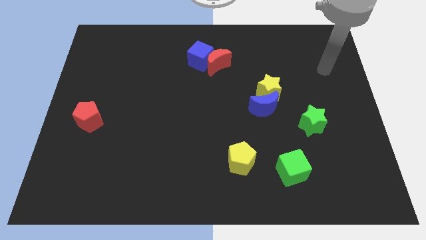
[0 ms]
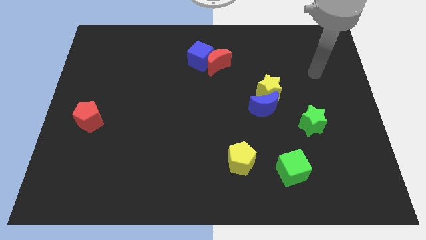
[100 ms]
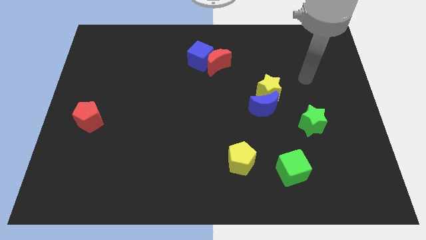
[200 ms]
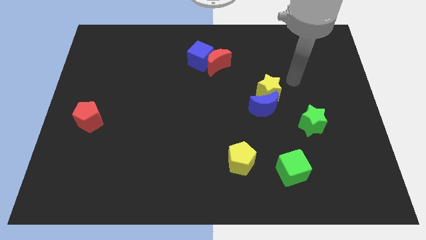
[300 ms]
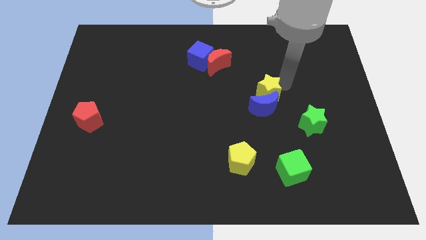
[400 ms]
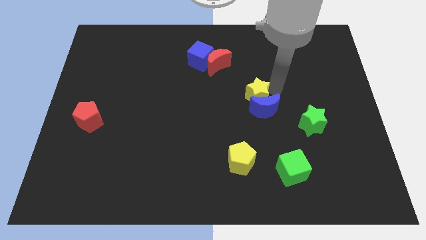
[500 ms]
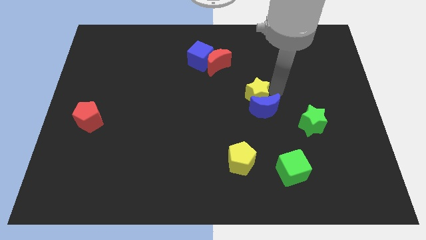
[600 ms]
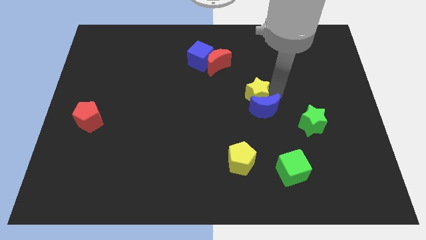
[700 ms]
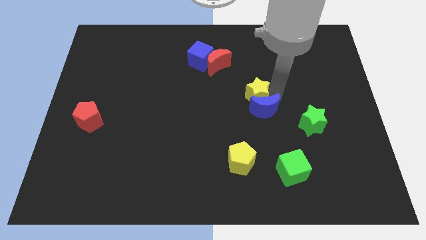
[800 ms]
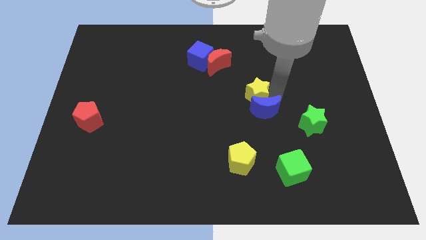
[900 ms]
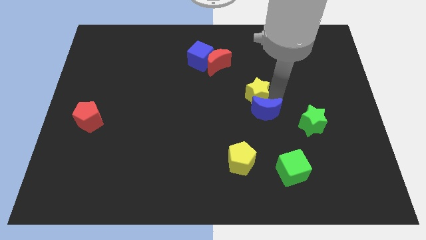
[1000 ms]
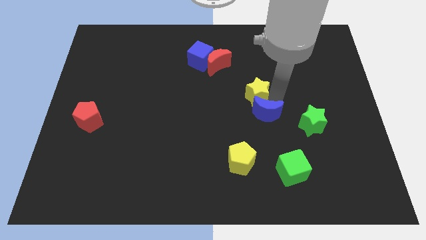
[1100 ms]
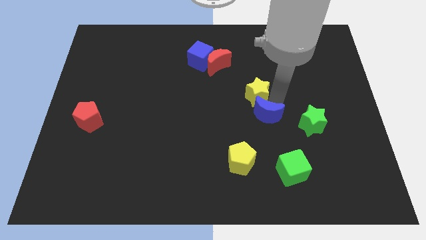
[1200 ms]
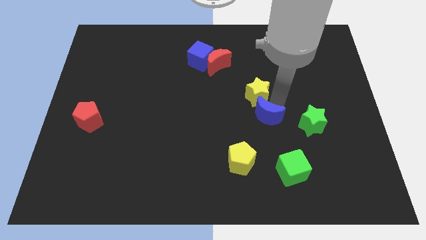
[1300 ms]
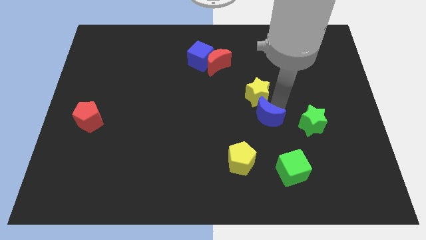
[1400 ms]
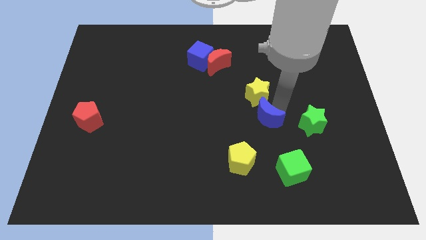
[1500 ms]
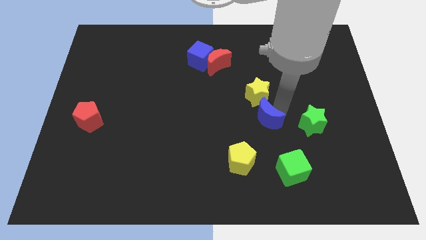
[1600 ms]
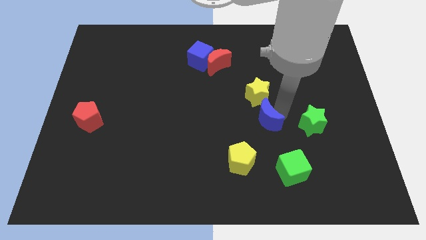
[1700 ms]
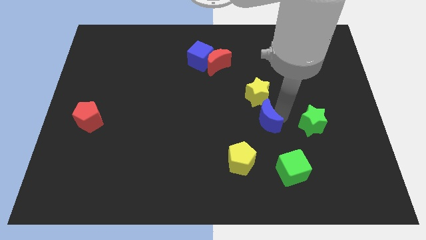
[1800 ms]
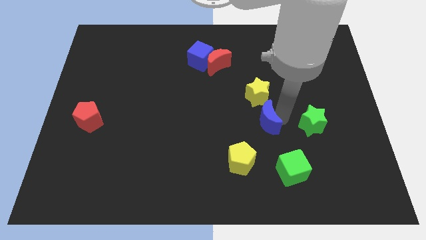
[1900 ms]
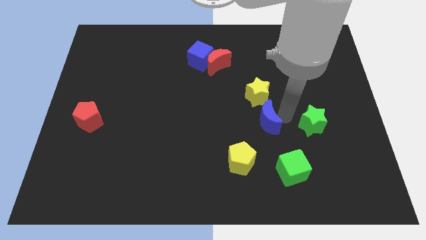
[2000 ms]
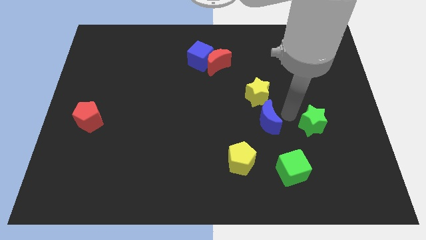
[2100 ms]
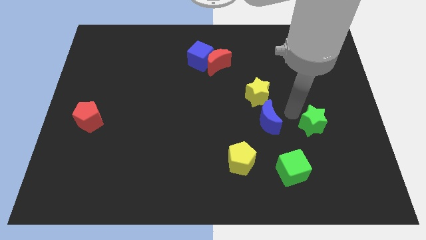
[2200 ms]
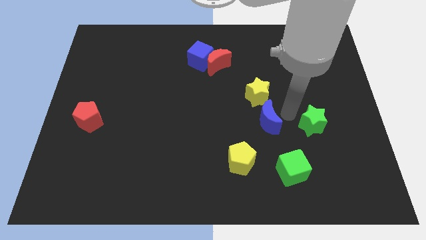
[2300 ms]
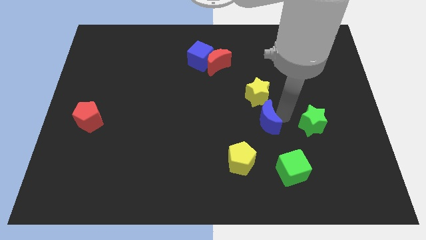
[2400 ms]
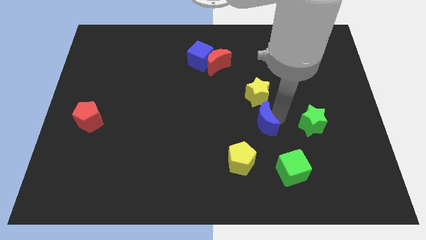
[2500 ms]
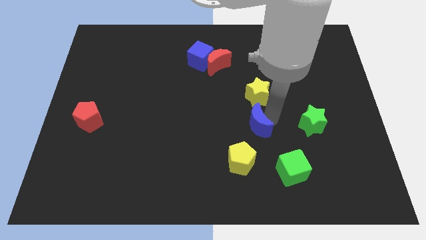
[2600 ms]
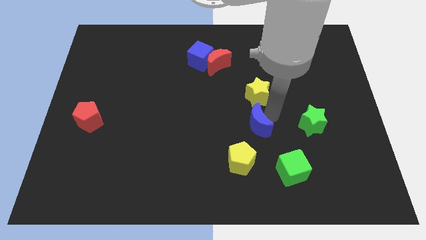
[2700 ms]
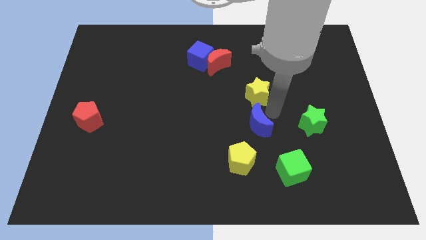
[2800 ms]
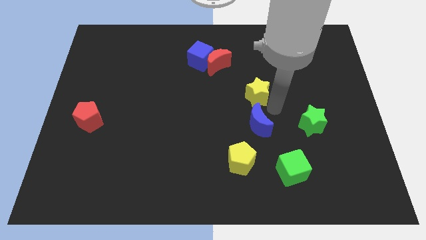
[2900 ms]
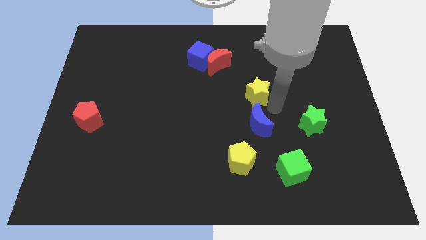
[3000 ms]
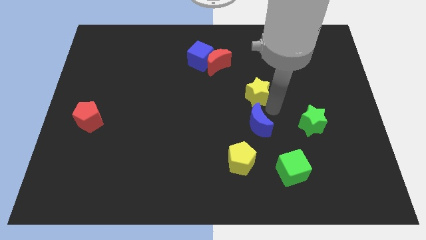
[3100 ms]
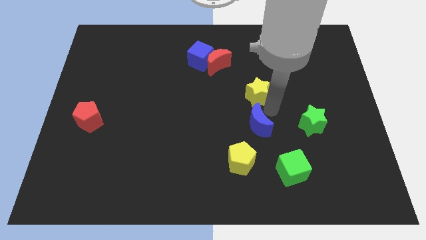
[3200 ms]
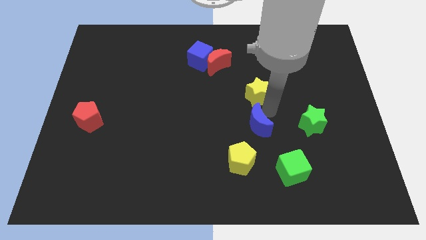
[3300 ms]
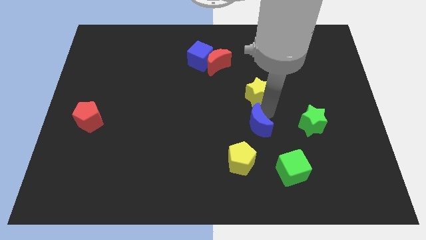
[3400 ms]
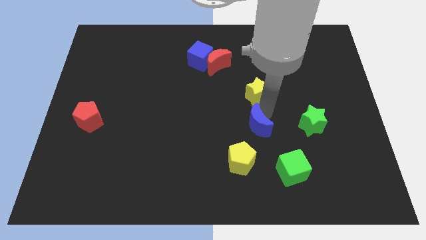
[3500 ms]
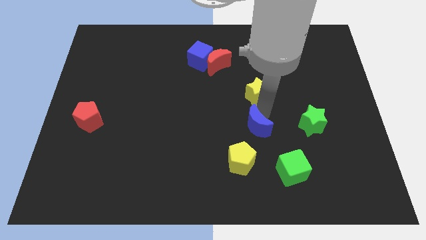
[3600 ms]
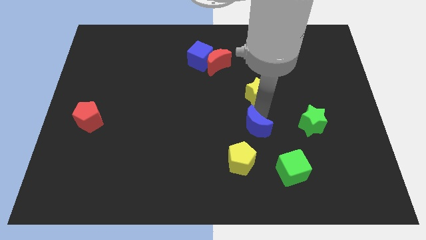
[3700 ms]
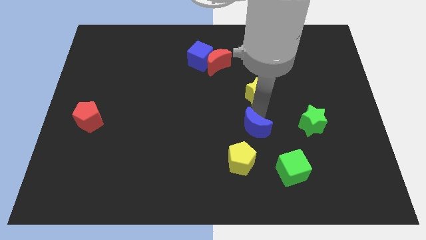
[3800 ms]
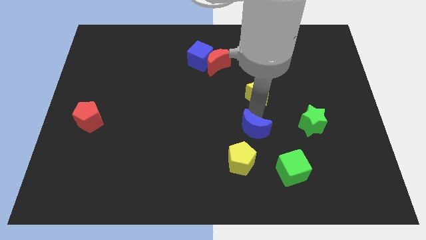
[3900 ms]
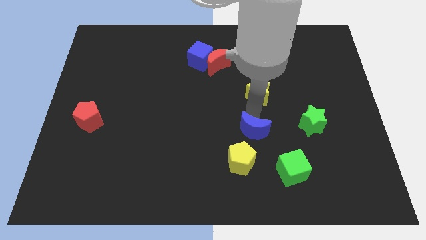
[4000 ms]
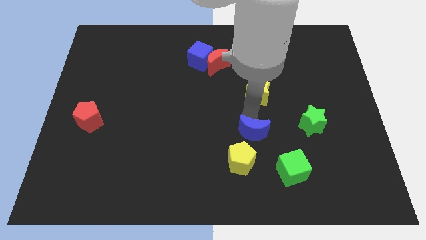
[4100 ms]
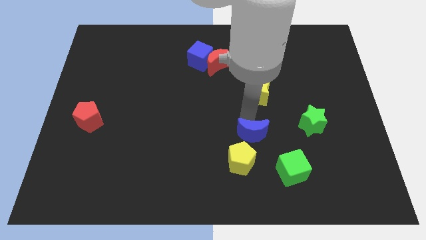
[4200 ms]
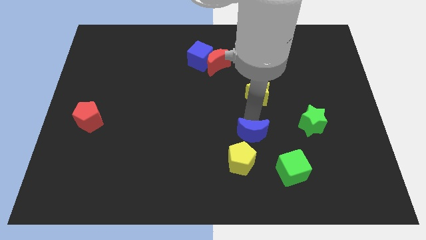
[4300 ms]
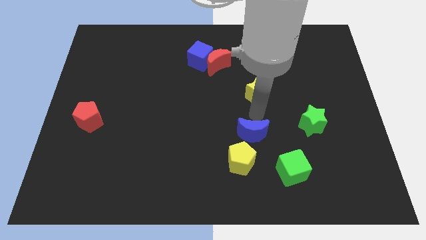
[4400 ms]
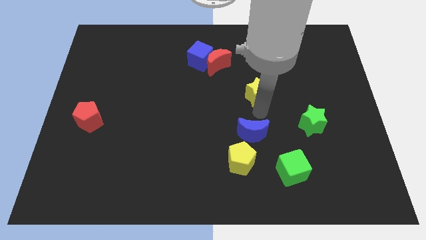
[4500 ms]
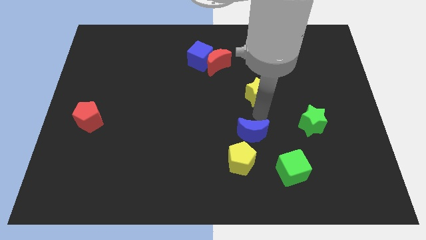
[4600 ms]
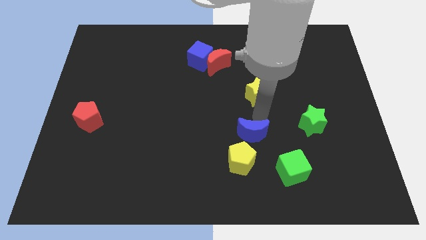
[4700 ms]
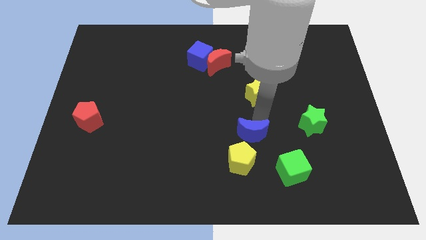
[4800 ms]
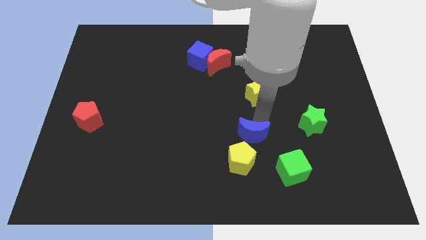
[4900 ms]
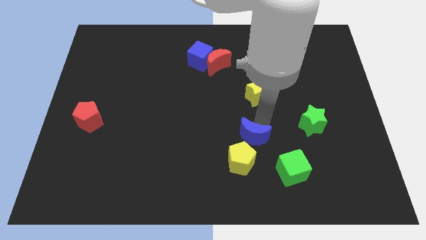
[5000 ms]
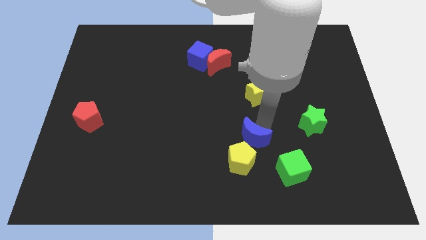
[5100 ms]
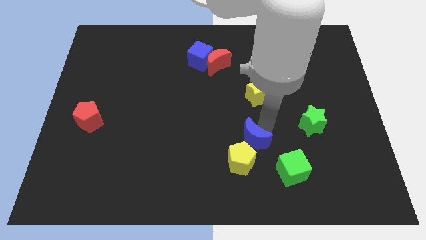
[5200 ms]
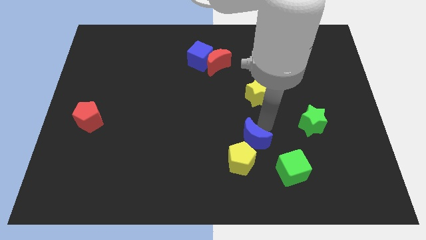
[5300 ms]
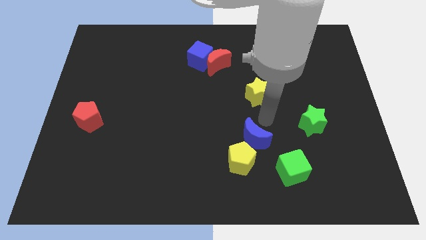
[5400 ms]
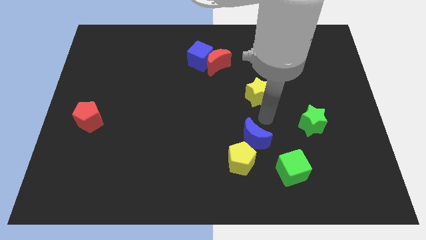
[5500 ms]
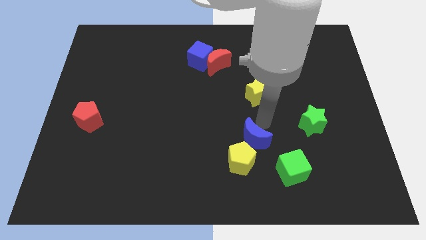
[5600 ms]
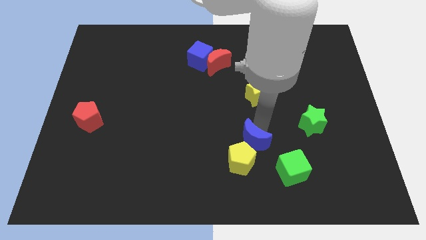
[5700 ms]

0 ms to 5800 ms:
slide the blue moon close to the yellow pentagon

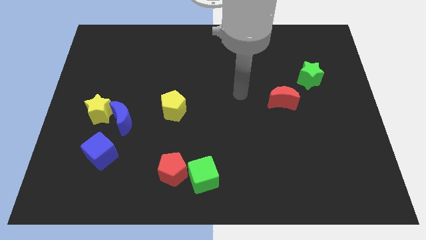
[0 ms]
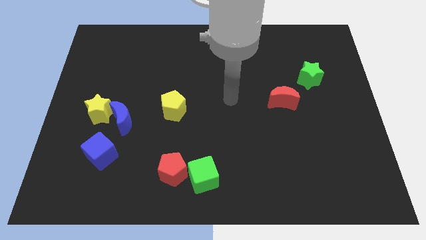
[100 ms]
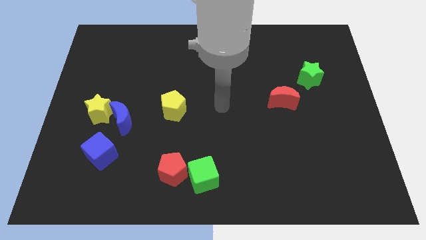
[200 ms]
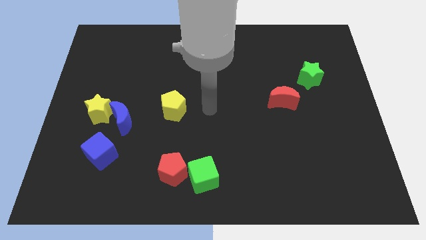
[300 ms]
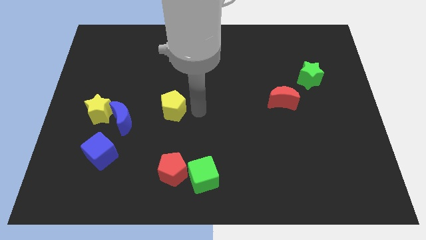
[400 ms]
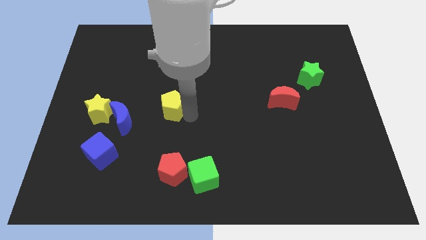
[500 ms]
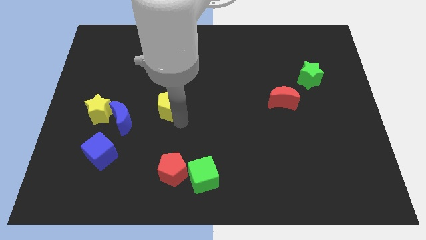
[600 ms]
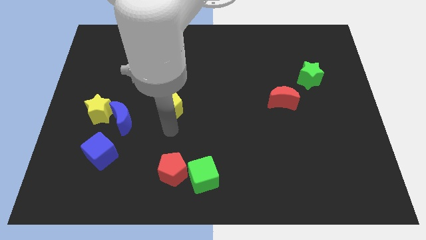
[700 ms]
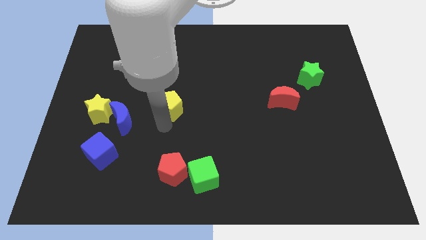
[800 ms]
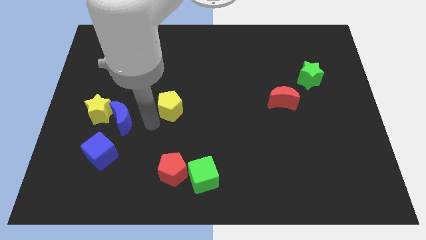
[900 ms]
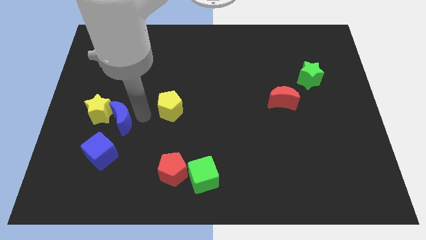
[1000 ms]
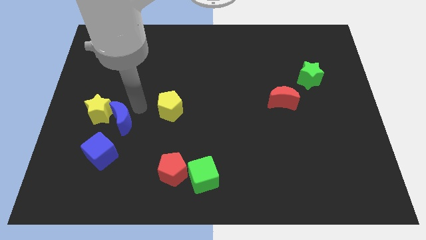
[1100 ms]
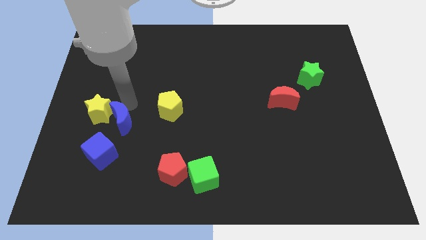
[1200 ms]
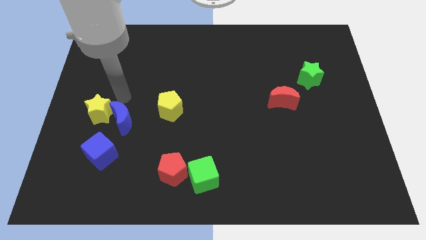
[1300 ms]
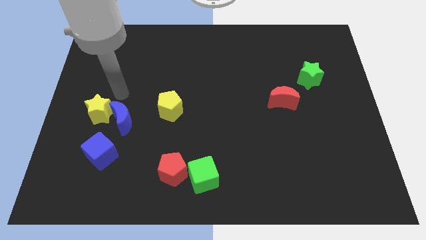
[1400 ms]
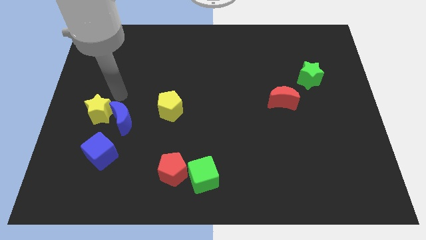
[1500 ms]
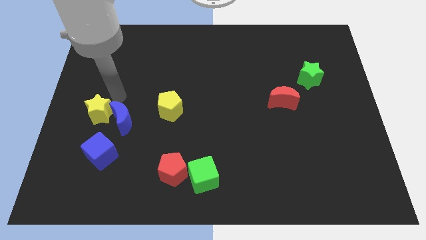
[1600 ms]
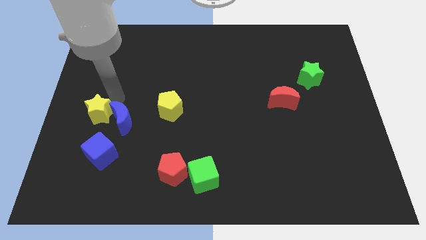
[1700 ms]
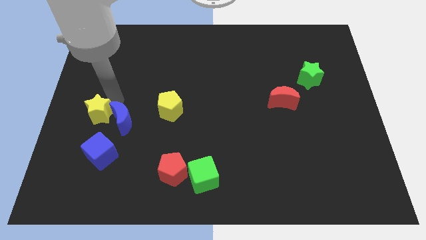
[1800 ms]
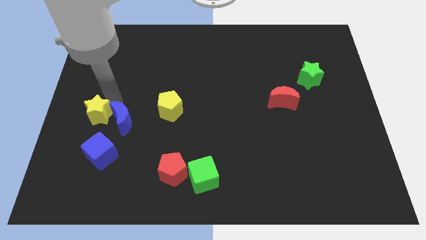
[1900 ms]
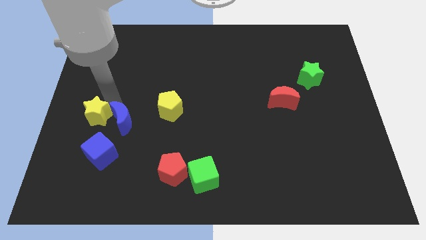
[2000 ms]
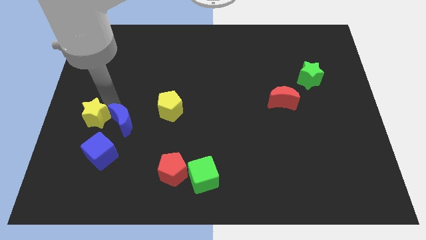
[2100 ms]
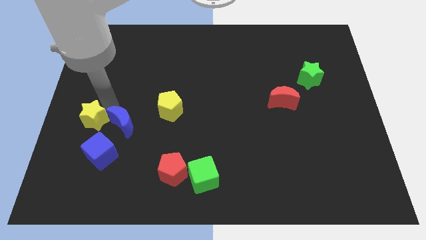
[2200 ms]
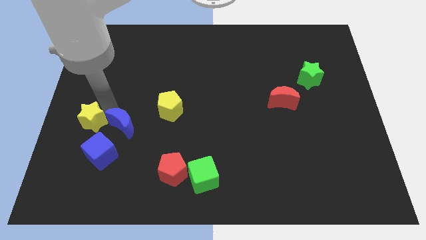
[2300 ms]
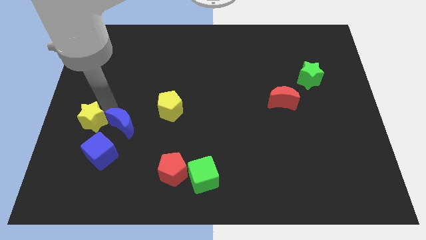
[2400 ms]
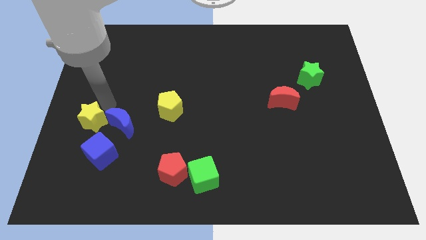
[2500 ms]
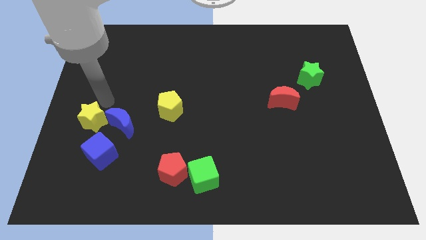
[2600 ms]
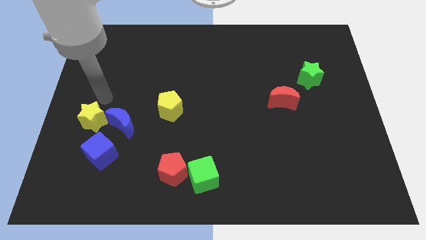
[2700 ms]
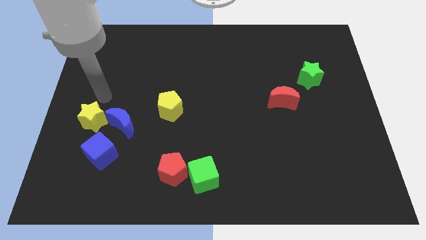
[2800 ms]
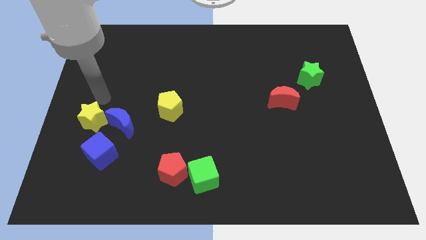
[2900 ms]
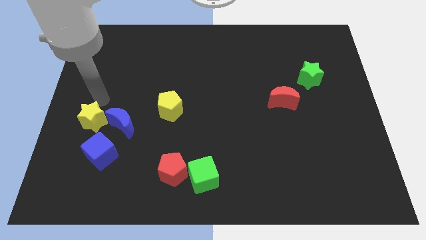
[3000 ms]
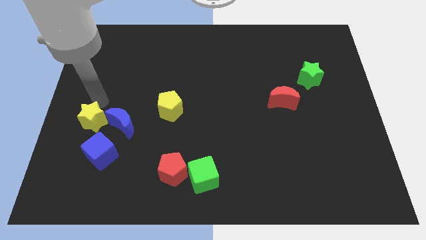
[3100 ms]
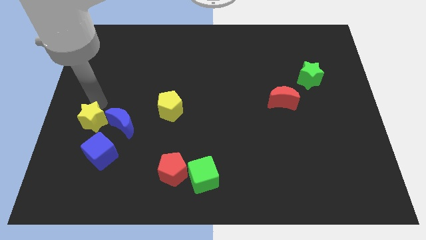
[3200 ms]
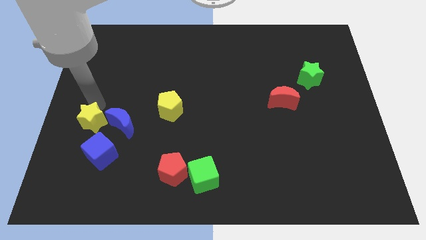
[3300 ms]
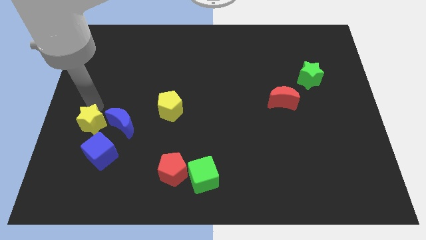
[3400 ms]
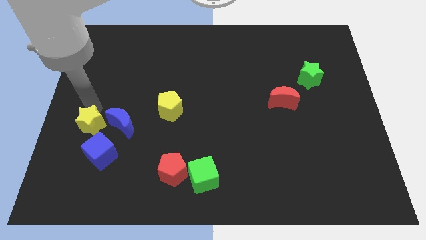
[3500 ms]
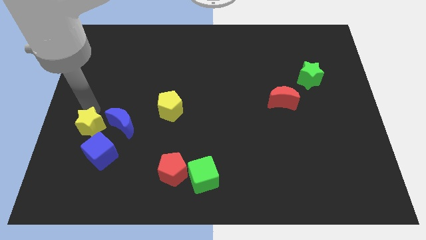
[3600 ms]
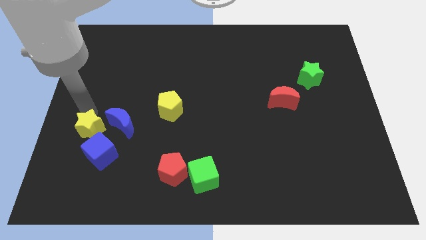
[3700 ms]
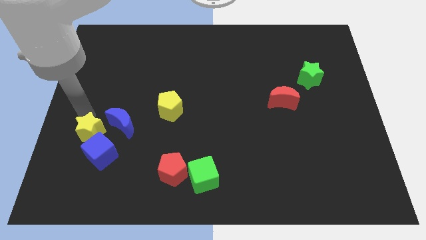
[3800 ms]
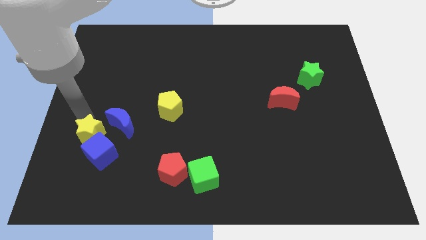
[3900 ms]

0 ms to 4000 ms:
slide the yellow star to the blue cube
